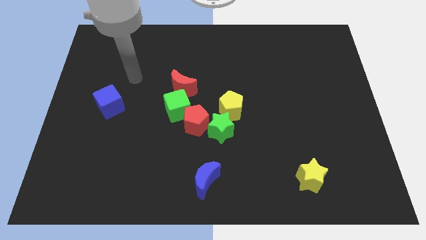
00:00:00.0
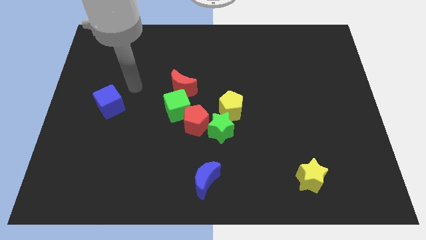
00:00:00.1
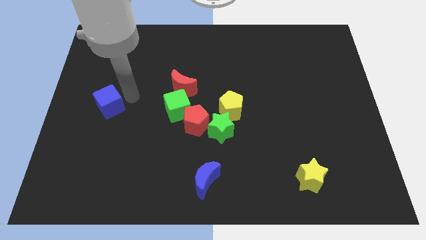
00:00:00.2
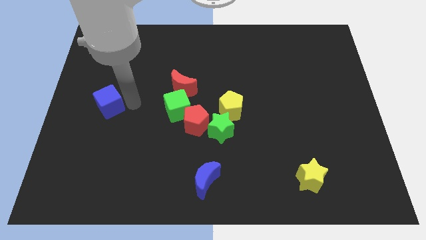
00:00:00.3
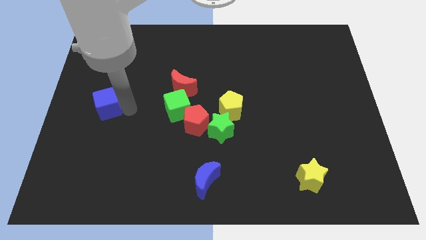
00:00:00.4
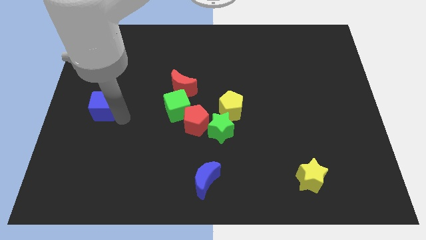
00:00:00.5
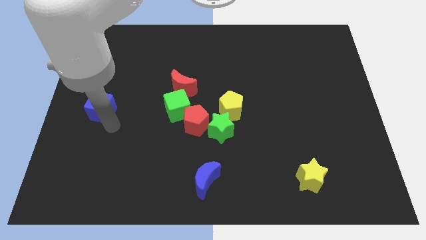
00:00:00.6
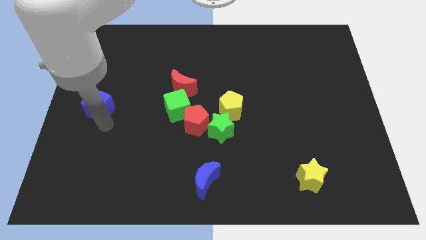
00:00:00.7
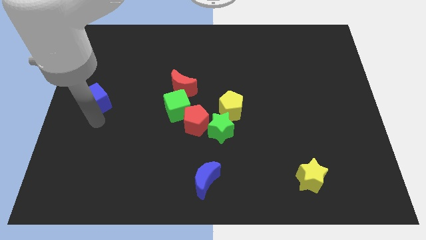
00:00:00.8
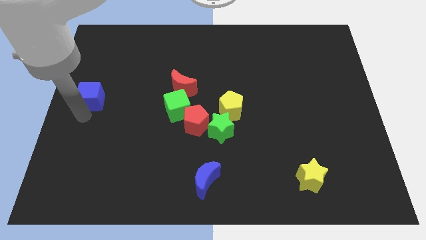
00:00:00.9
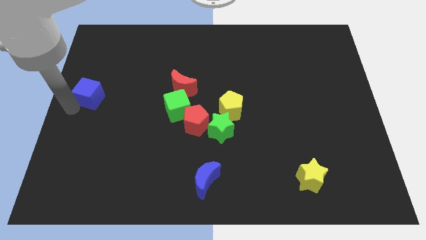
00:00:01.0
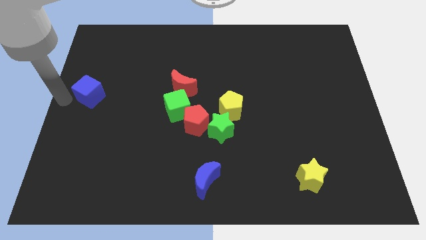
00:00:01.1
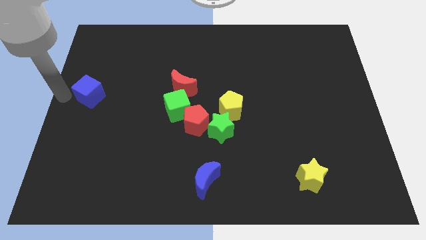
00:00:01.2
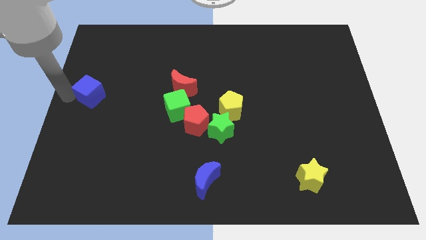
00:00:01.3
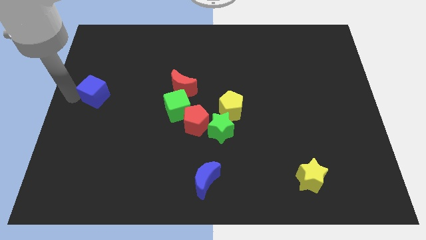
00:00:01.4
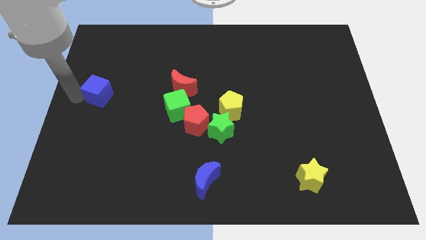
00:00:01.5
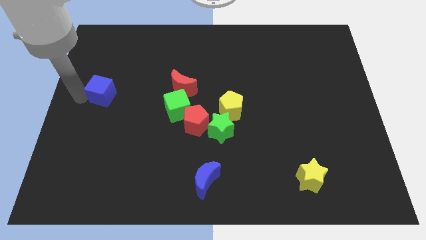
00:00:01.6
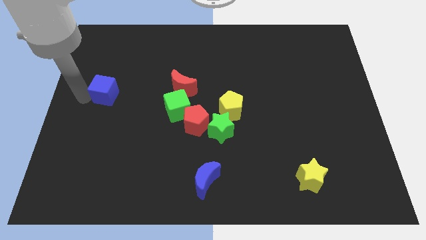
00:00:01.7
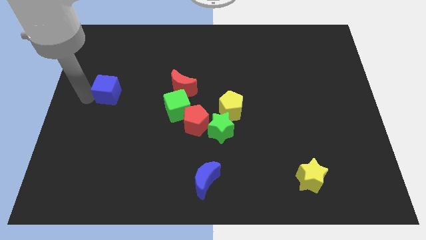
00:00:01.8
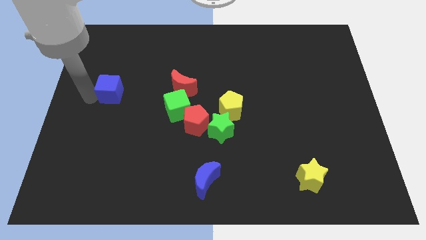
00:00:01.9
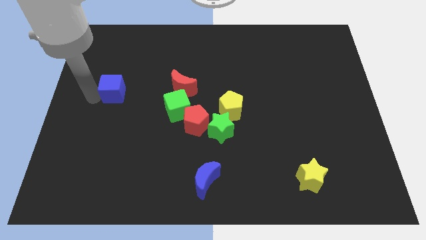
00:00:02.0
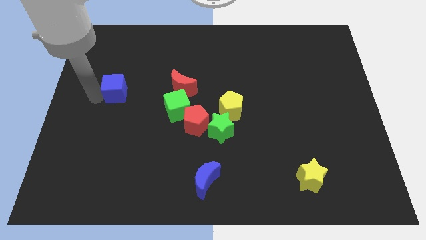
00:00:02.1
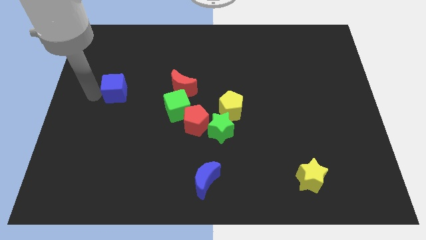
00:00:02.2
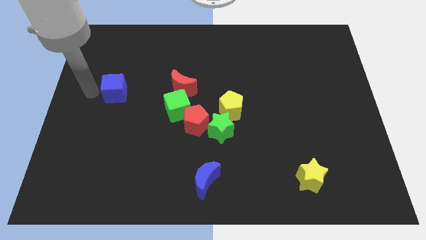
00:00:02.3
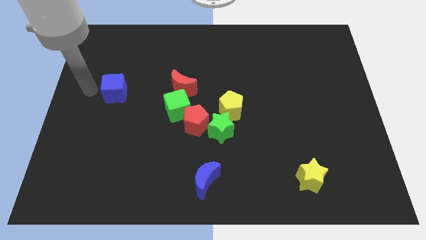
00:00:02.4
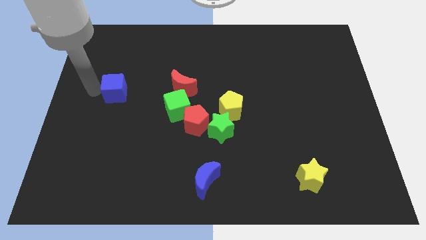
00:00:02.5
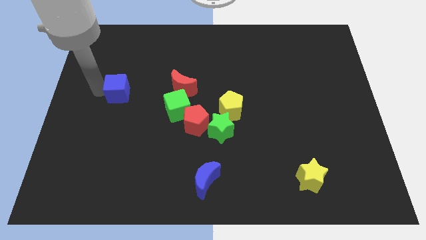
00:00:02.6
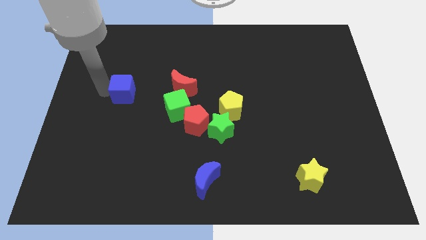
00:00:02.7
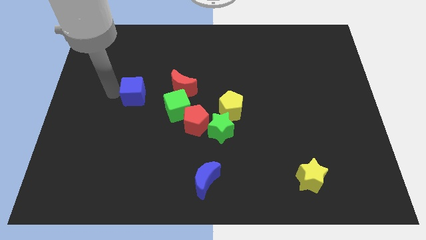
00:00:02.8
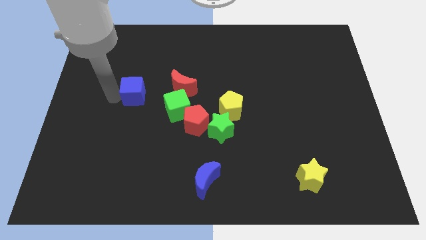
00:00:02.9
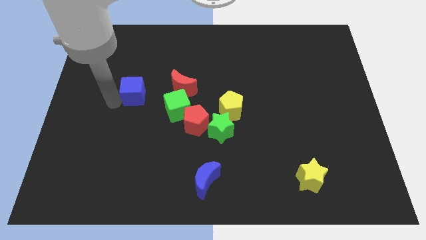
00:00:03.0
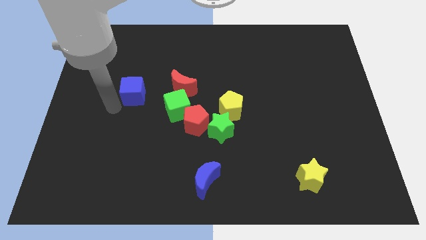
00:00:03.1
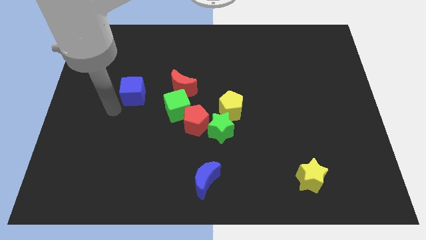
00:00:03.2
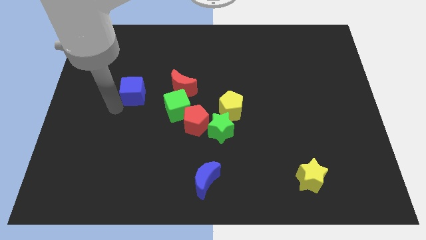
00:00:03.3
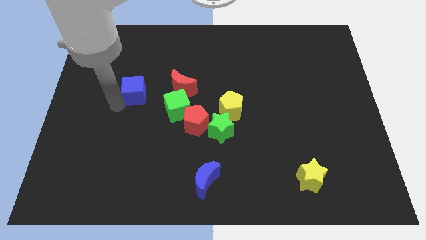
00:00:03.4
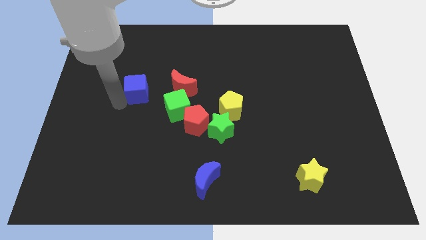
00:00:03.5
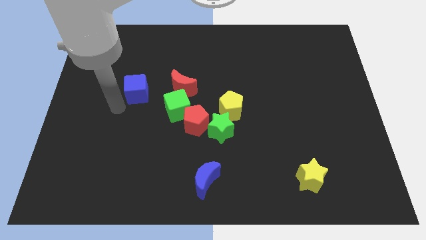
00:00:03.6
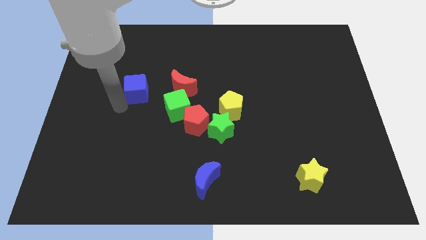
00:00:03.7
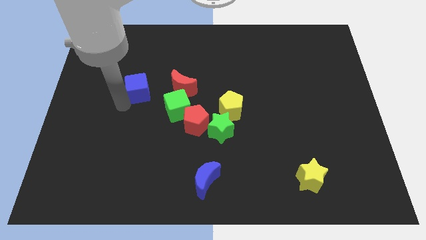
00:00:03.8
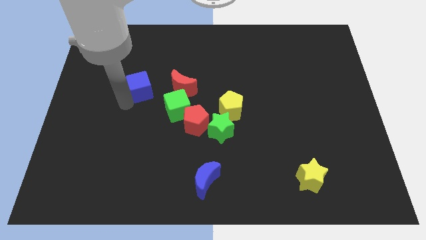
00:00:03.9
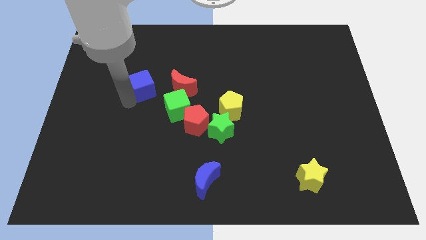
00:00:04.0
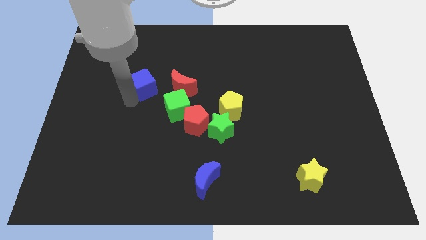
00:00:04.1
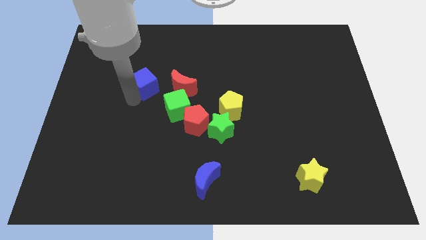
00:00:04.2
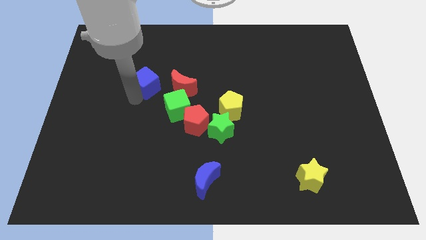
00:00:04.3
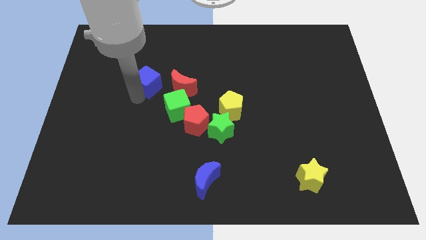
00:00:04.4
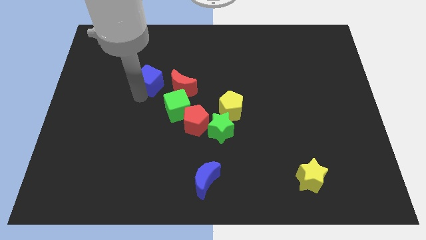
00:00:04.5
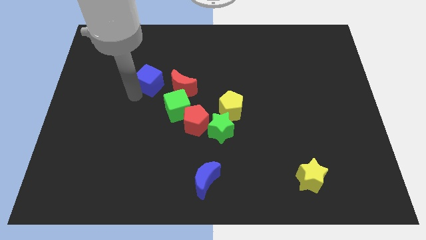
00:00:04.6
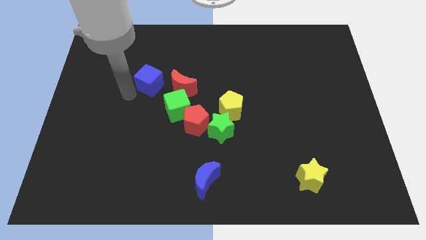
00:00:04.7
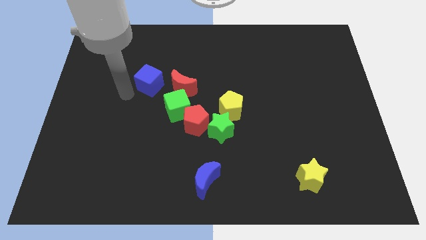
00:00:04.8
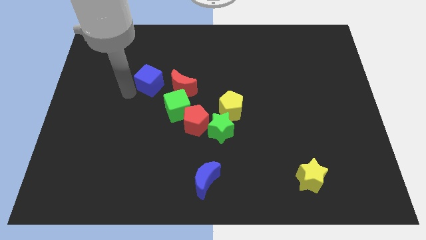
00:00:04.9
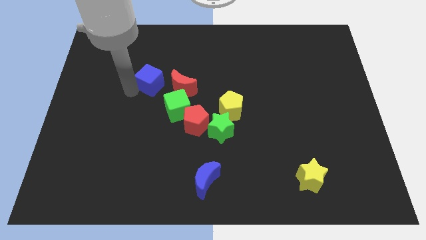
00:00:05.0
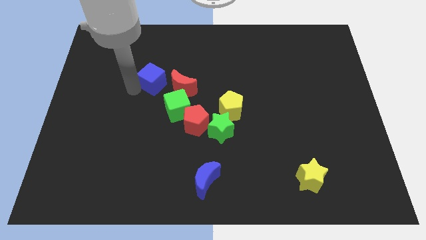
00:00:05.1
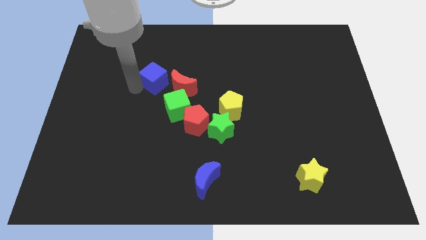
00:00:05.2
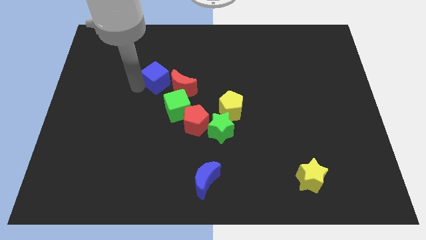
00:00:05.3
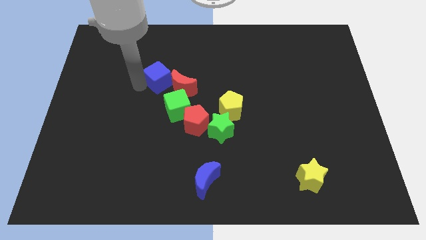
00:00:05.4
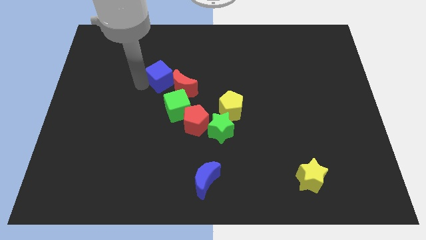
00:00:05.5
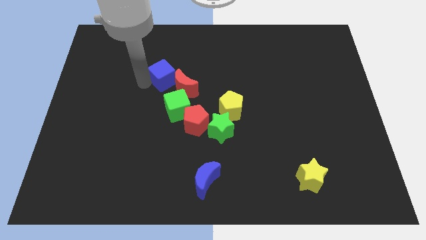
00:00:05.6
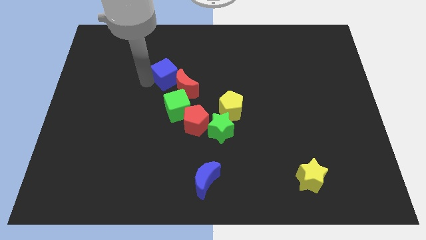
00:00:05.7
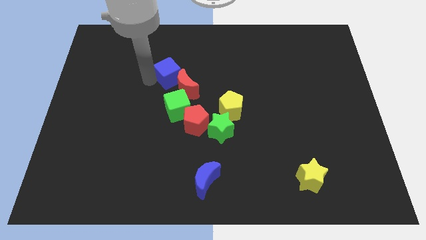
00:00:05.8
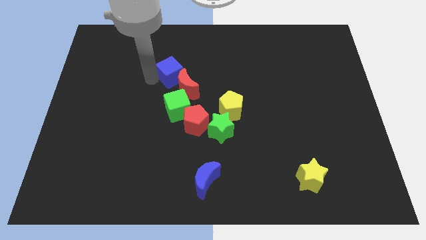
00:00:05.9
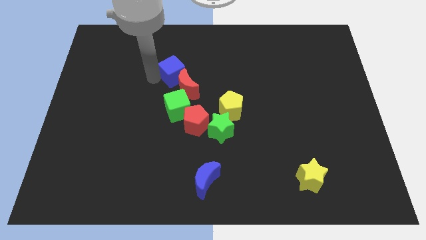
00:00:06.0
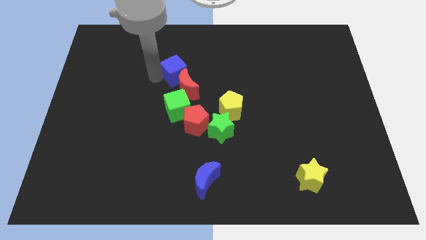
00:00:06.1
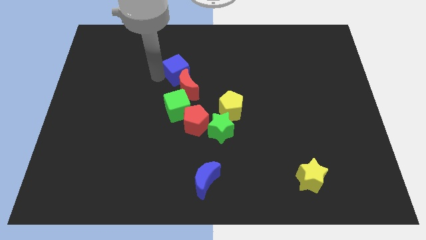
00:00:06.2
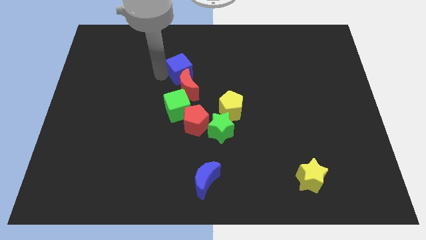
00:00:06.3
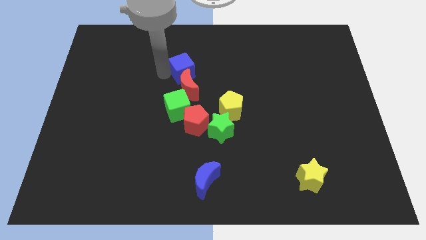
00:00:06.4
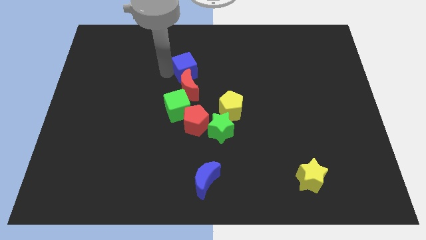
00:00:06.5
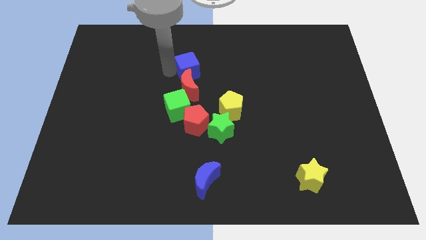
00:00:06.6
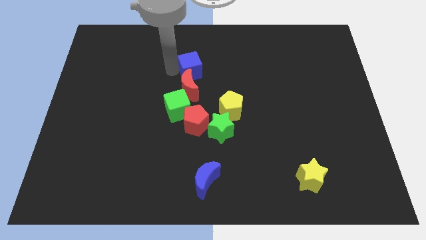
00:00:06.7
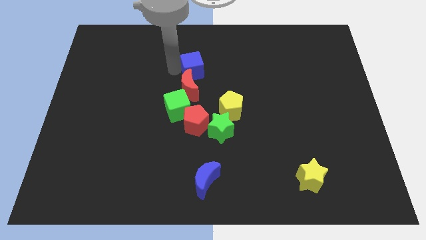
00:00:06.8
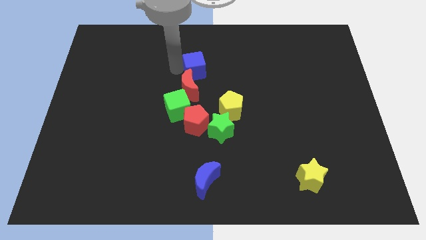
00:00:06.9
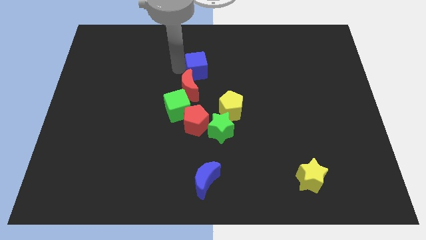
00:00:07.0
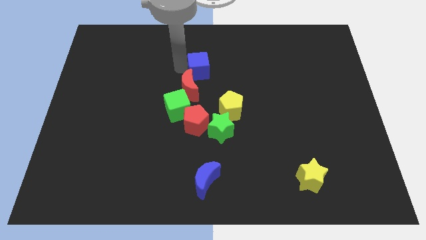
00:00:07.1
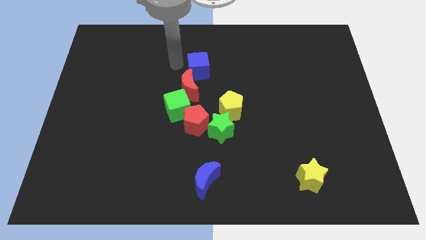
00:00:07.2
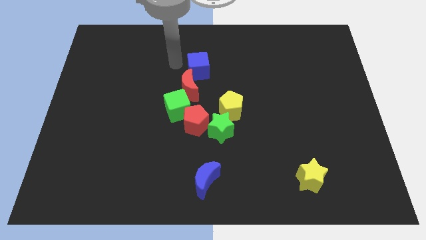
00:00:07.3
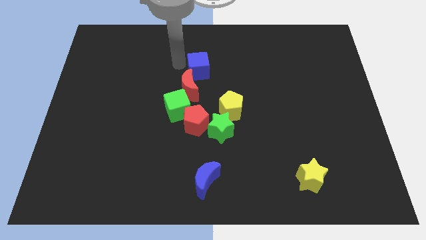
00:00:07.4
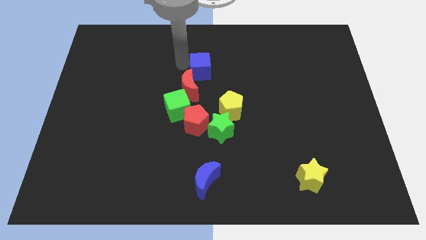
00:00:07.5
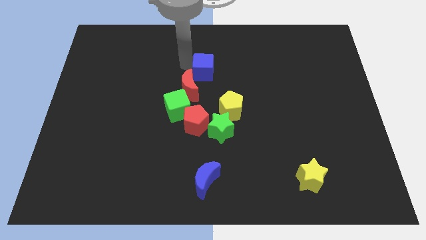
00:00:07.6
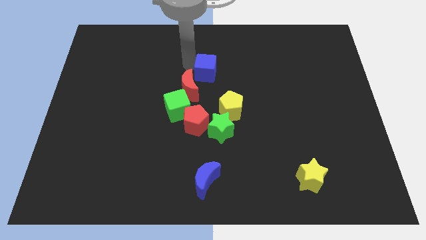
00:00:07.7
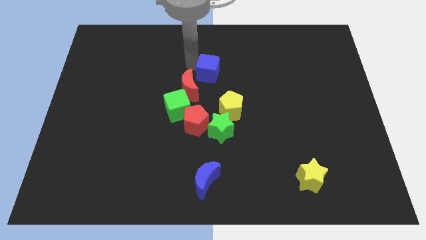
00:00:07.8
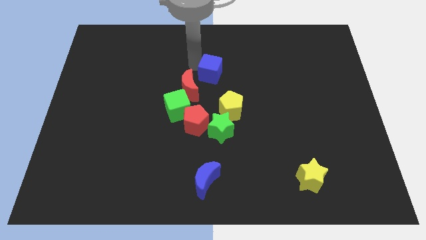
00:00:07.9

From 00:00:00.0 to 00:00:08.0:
move the blue cube above the yellow pentagon
